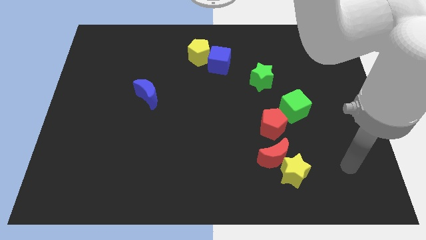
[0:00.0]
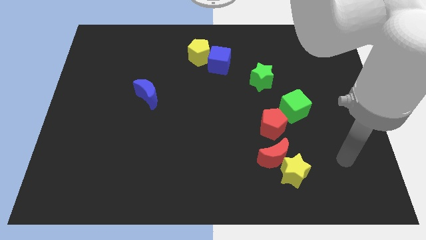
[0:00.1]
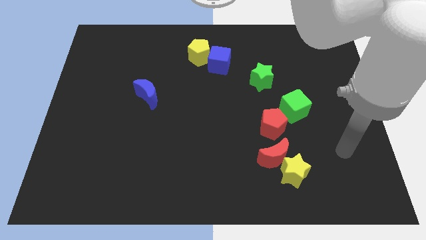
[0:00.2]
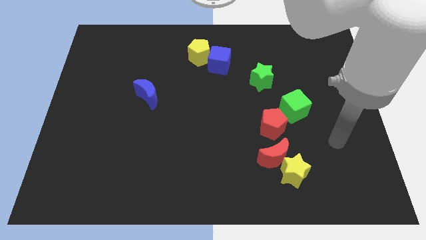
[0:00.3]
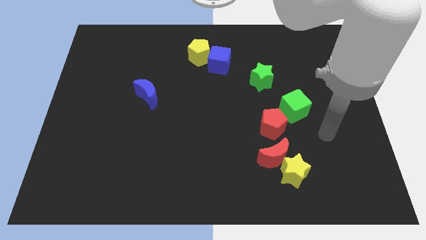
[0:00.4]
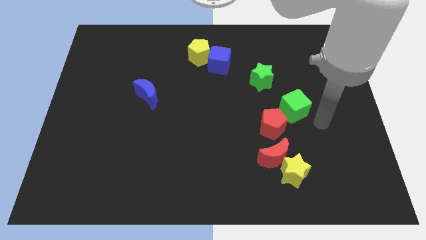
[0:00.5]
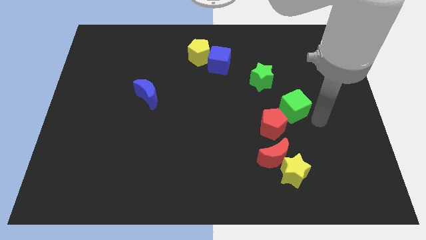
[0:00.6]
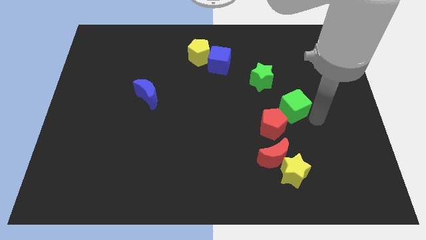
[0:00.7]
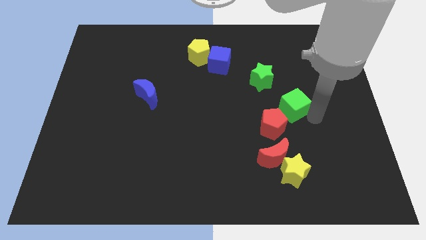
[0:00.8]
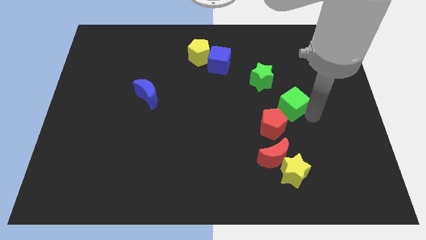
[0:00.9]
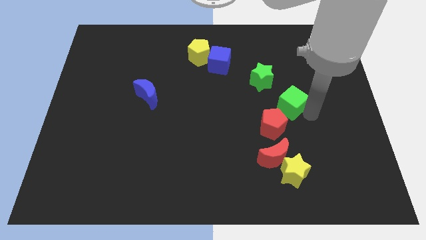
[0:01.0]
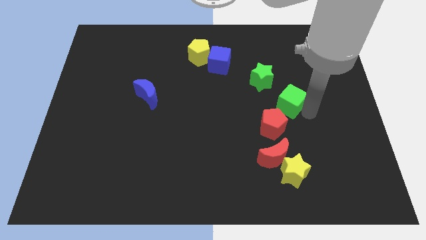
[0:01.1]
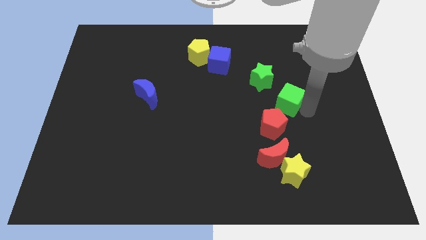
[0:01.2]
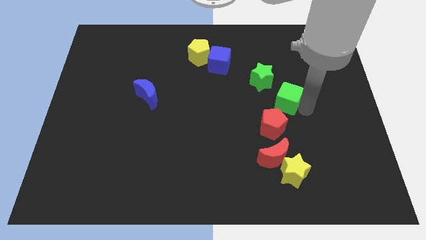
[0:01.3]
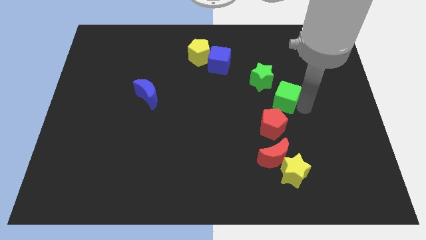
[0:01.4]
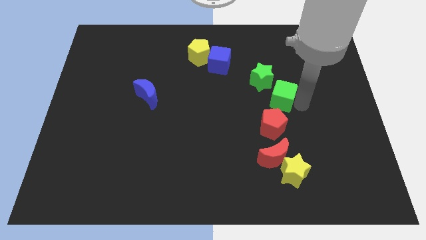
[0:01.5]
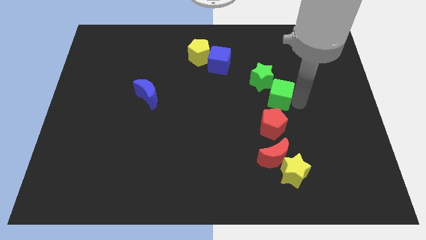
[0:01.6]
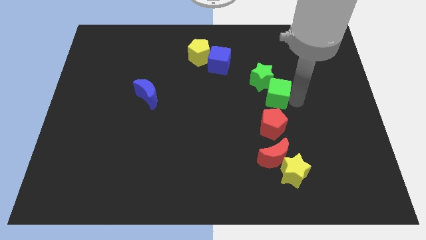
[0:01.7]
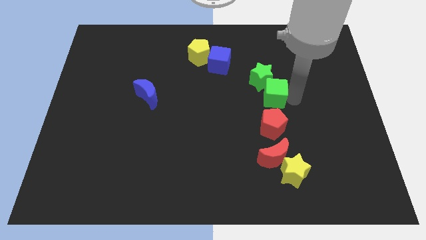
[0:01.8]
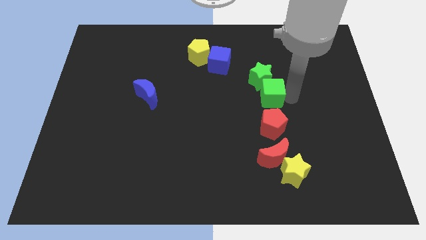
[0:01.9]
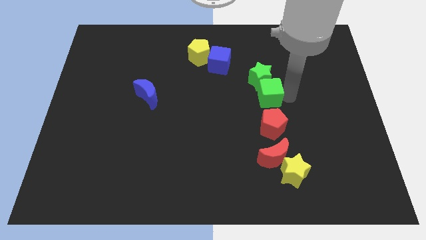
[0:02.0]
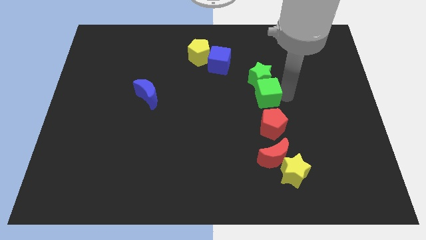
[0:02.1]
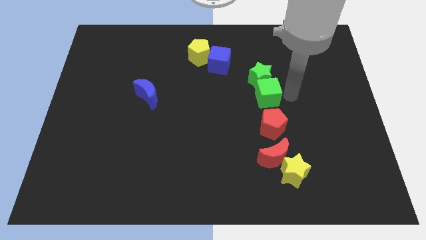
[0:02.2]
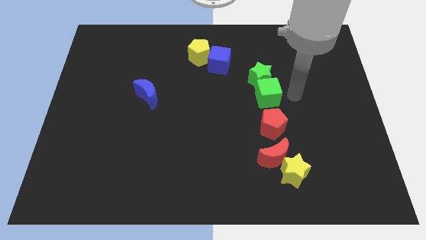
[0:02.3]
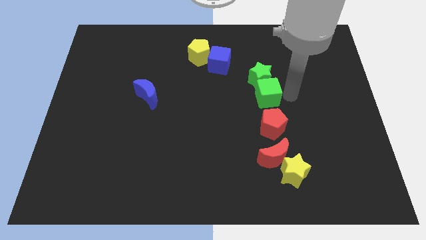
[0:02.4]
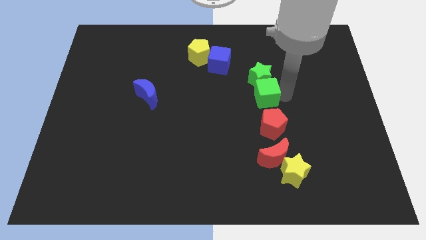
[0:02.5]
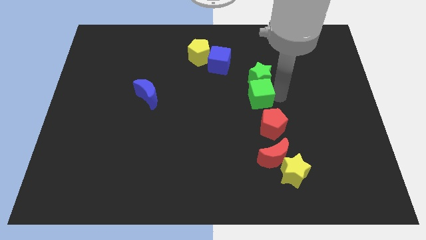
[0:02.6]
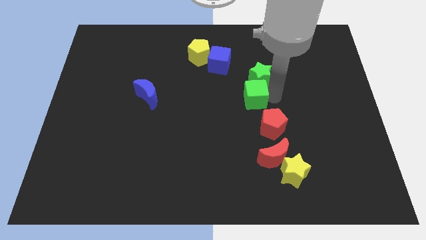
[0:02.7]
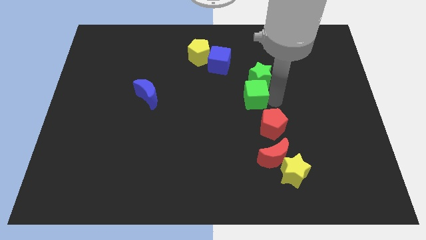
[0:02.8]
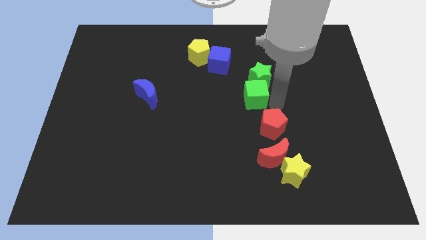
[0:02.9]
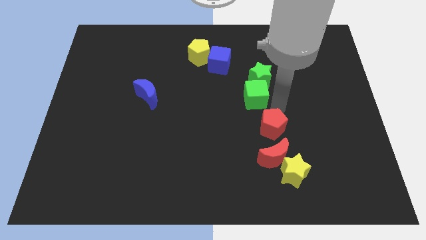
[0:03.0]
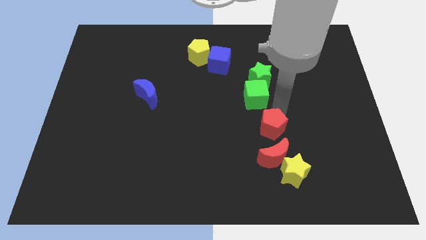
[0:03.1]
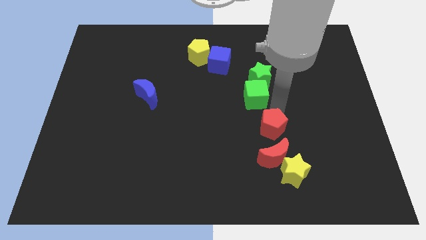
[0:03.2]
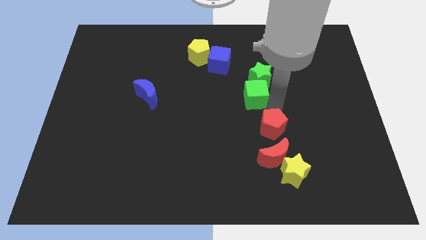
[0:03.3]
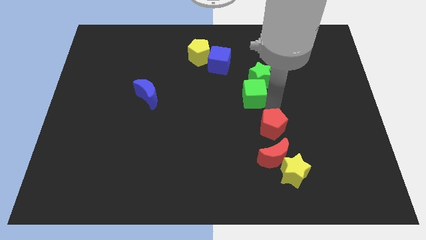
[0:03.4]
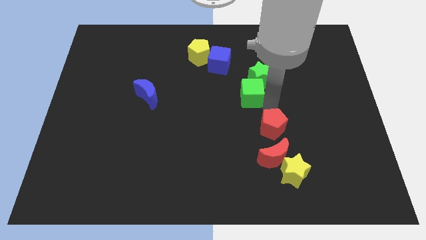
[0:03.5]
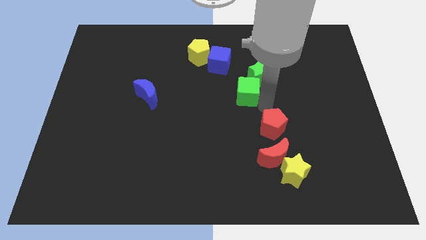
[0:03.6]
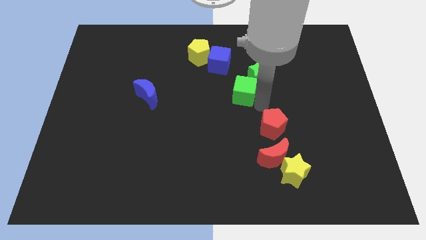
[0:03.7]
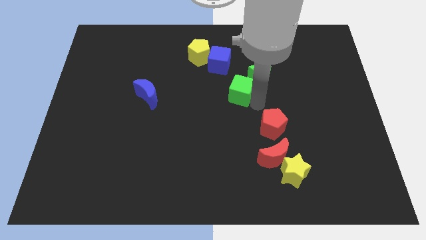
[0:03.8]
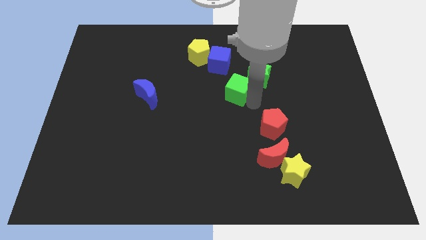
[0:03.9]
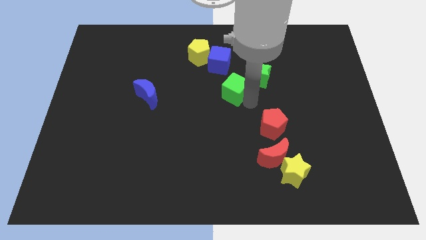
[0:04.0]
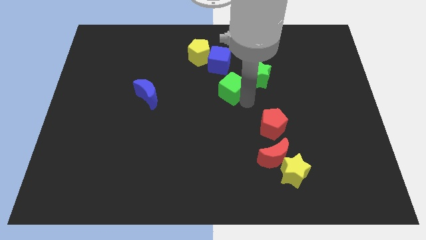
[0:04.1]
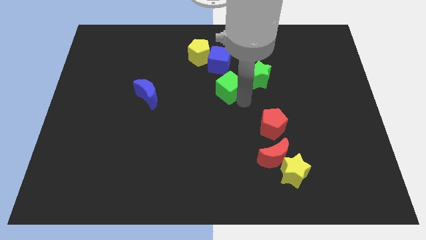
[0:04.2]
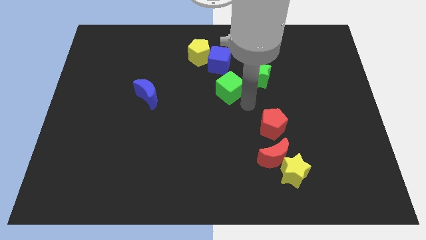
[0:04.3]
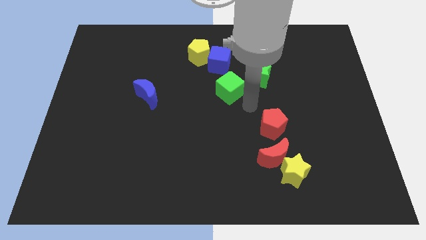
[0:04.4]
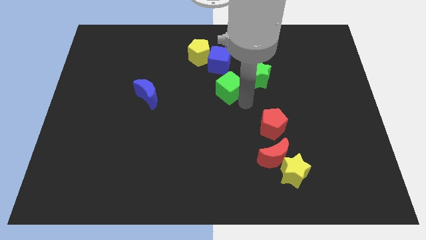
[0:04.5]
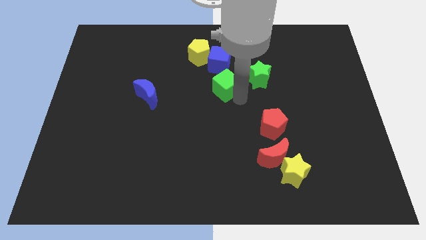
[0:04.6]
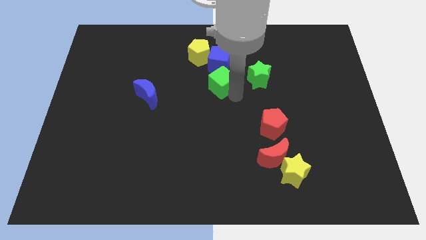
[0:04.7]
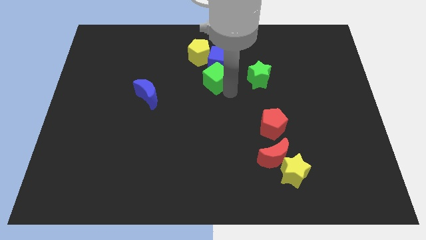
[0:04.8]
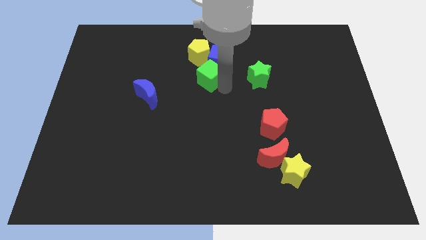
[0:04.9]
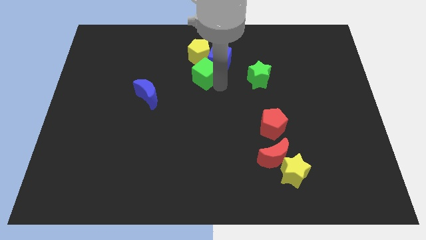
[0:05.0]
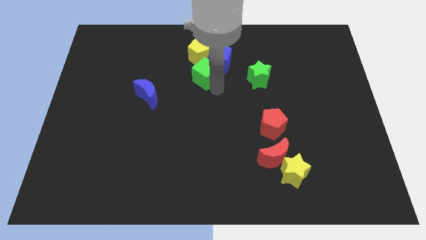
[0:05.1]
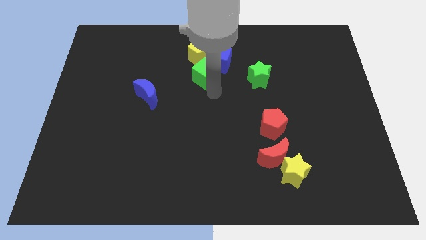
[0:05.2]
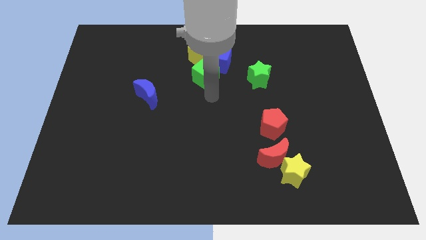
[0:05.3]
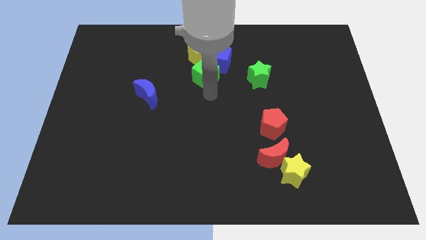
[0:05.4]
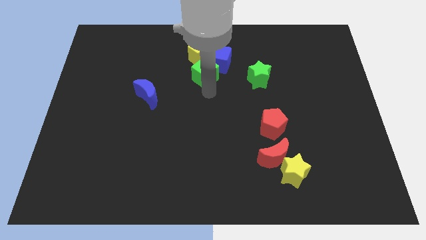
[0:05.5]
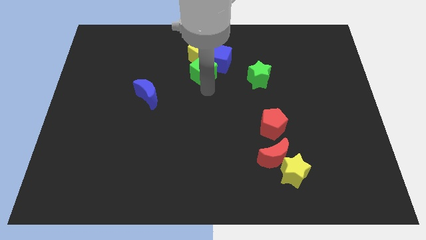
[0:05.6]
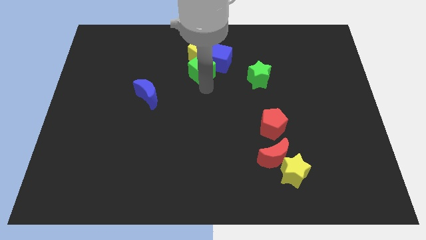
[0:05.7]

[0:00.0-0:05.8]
put the green cube next to the yellow pentagon

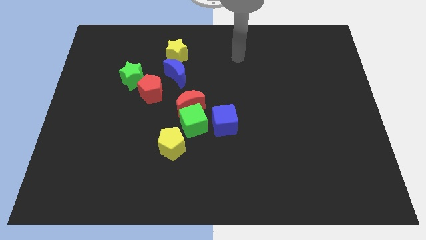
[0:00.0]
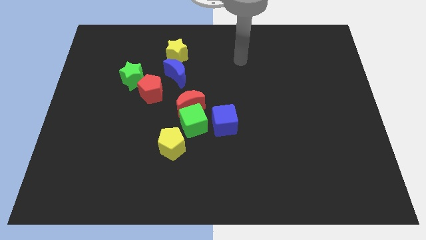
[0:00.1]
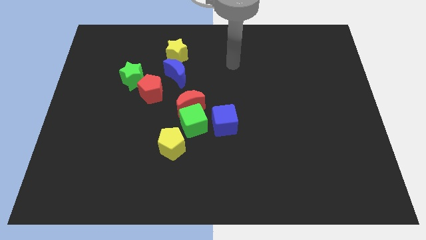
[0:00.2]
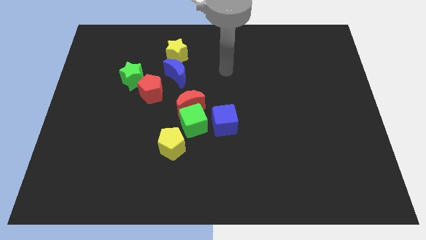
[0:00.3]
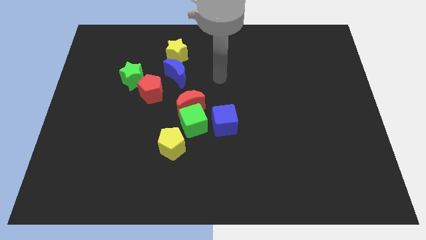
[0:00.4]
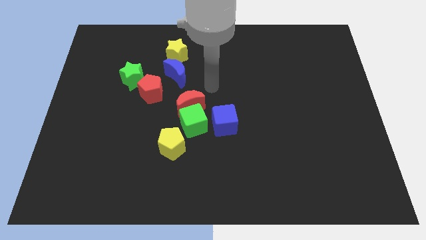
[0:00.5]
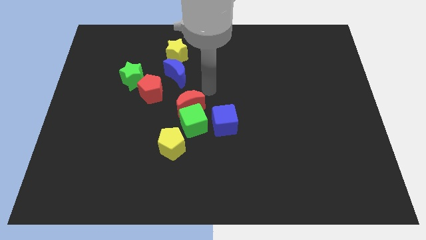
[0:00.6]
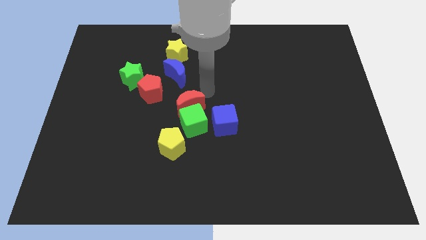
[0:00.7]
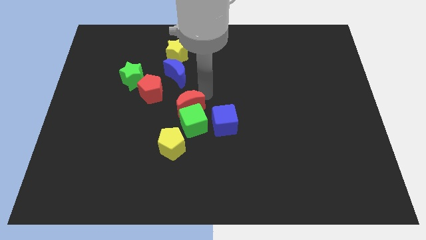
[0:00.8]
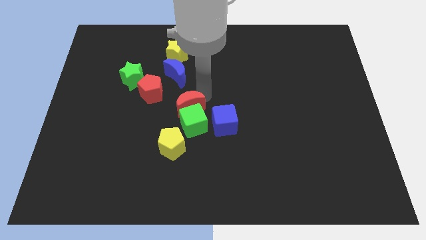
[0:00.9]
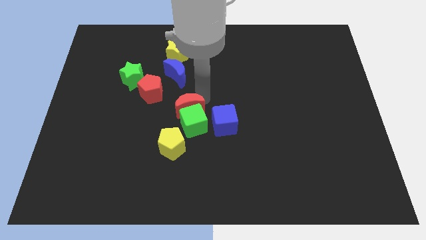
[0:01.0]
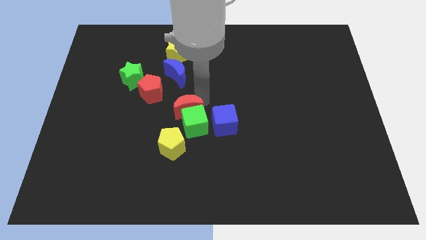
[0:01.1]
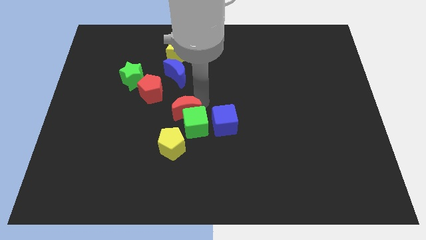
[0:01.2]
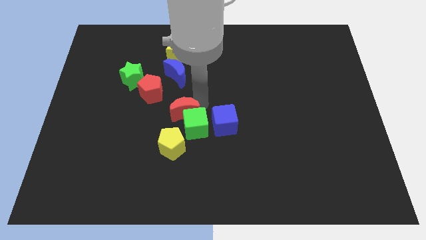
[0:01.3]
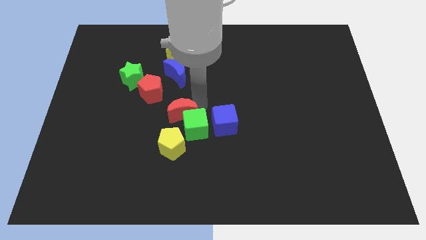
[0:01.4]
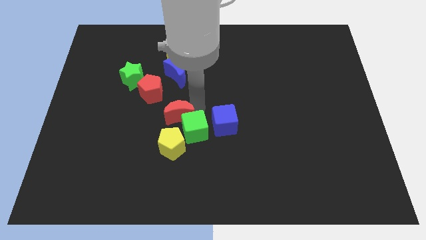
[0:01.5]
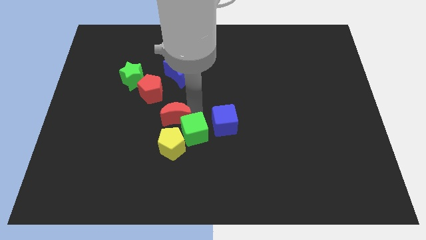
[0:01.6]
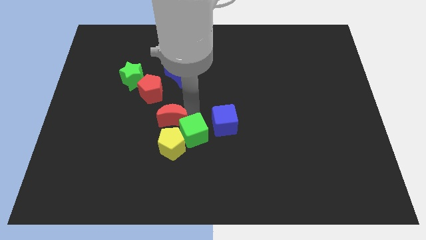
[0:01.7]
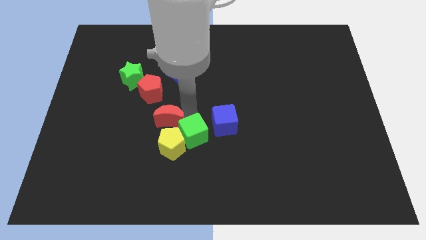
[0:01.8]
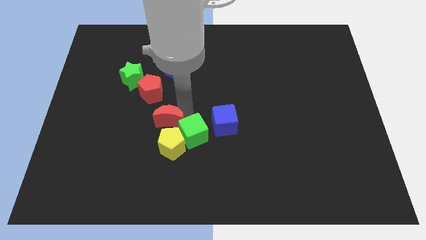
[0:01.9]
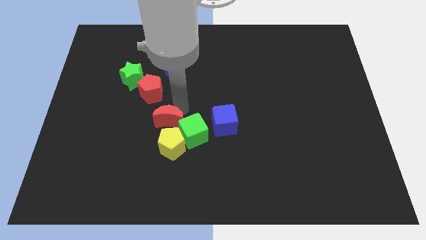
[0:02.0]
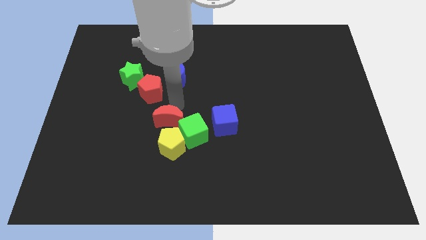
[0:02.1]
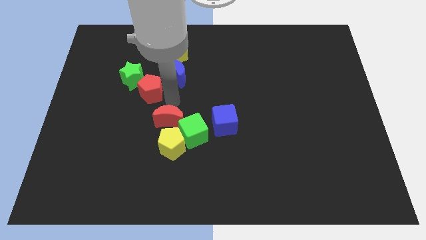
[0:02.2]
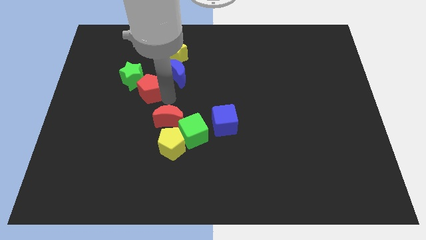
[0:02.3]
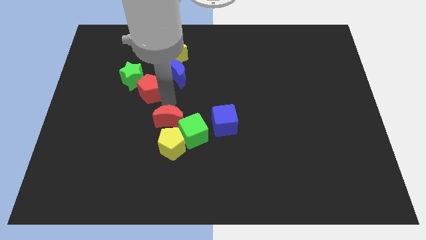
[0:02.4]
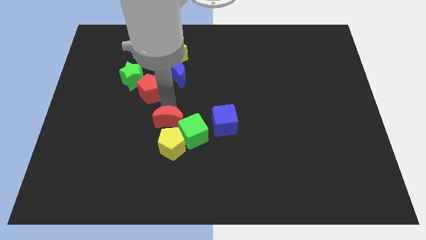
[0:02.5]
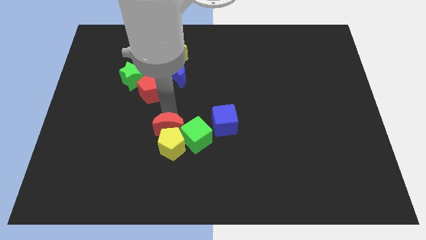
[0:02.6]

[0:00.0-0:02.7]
move the red moon to the yellow pentagon
